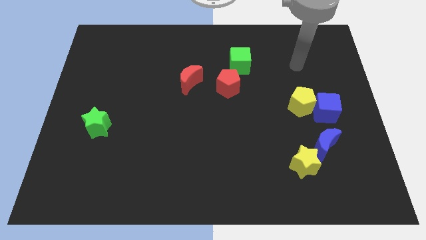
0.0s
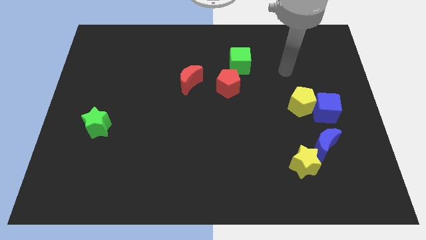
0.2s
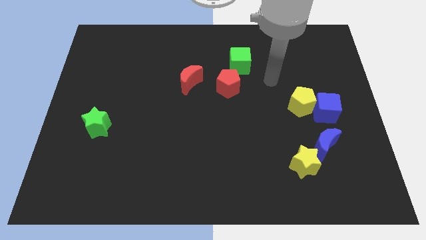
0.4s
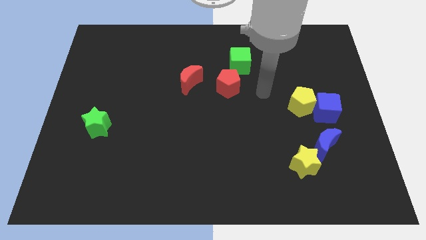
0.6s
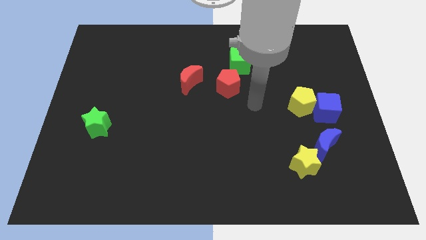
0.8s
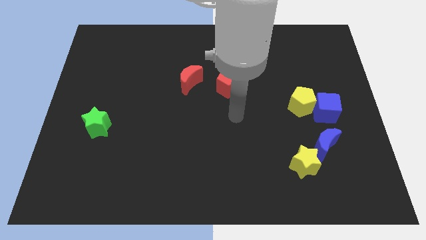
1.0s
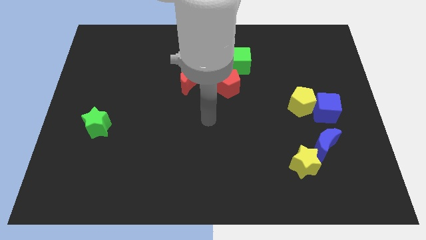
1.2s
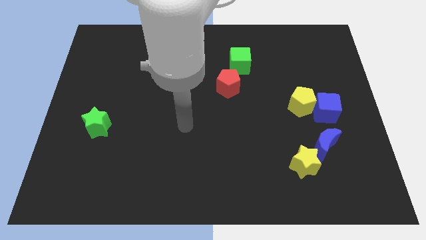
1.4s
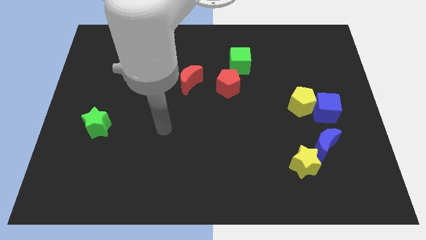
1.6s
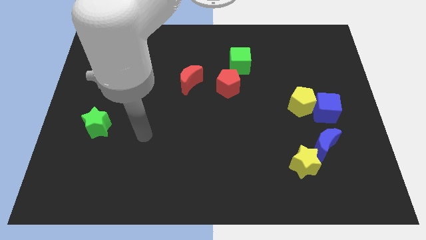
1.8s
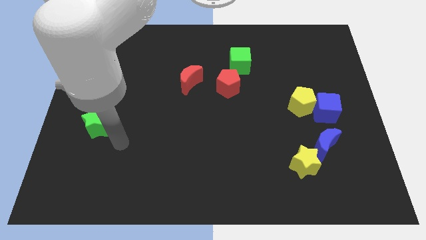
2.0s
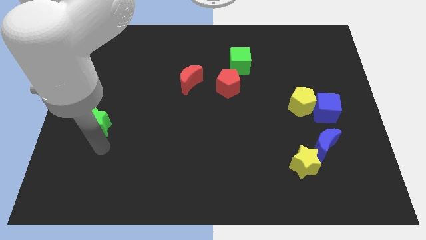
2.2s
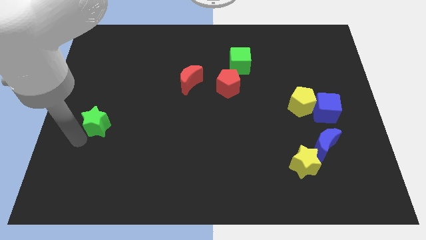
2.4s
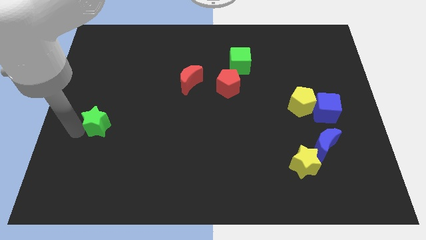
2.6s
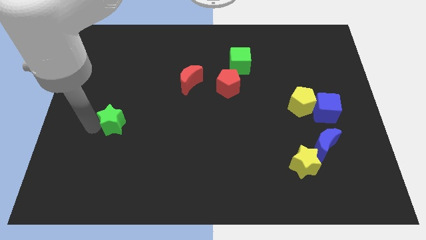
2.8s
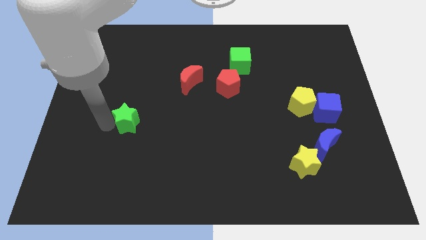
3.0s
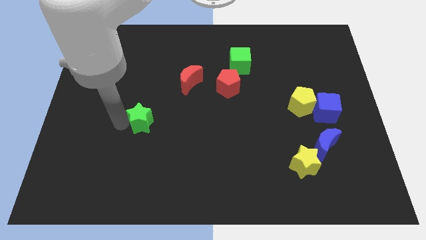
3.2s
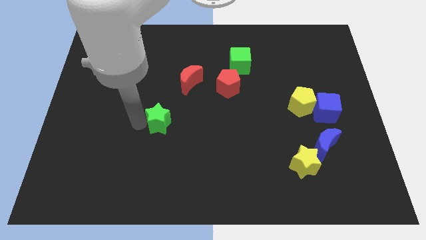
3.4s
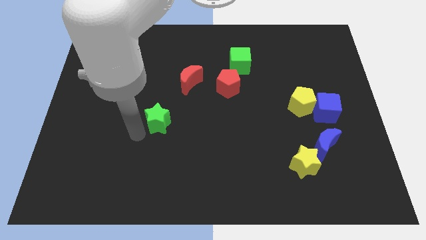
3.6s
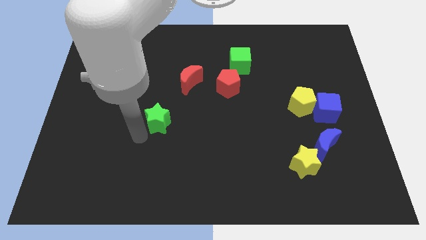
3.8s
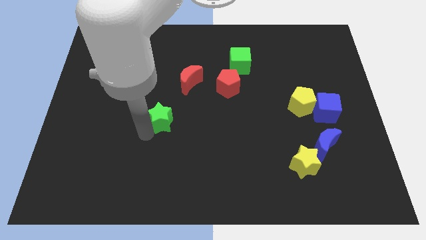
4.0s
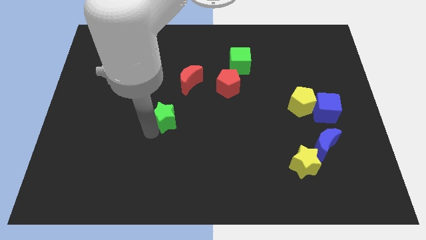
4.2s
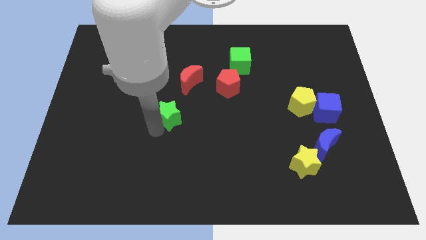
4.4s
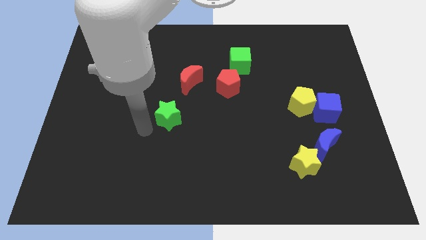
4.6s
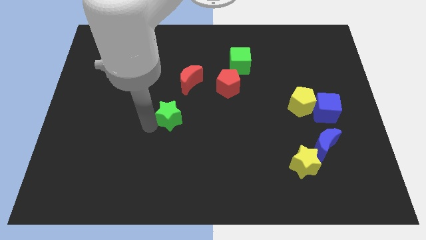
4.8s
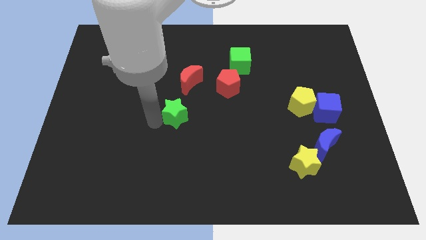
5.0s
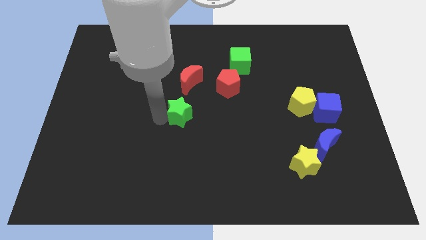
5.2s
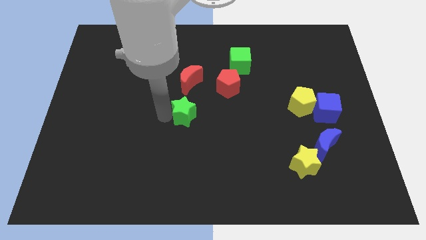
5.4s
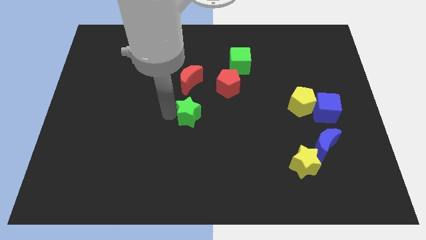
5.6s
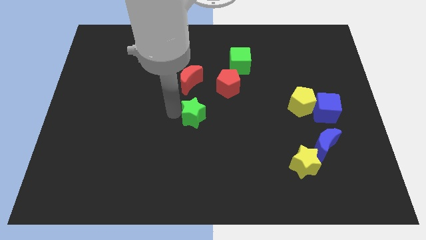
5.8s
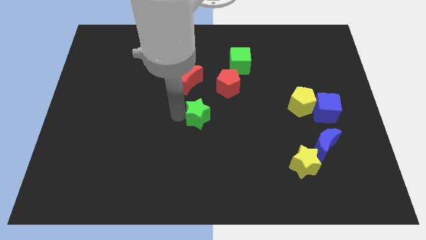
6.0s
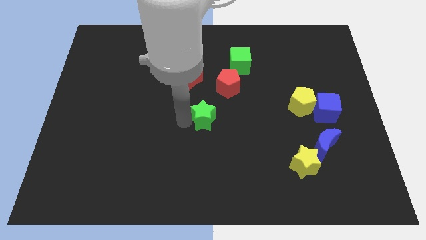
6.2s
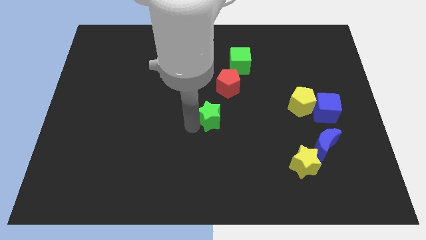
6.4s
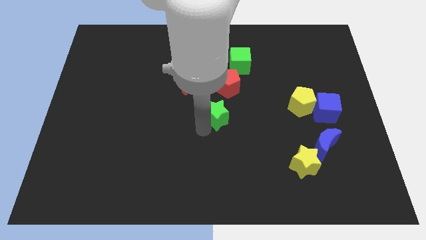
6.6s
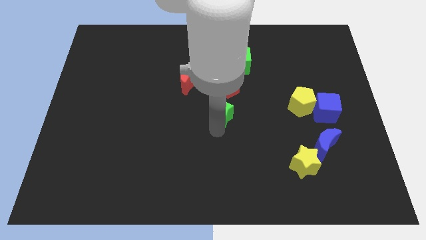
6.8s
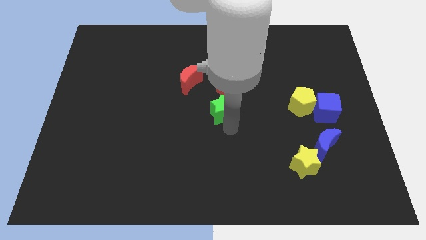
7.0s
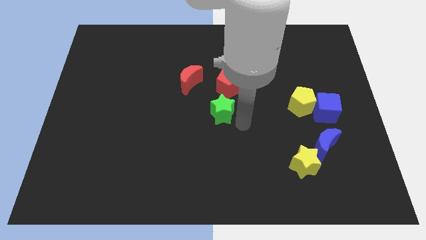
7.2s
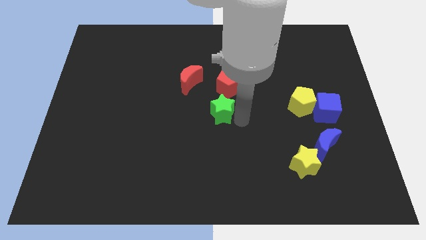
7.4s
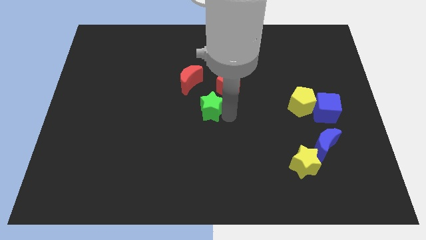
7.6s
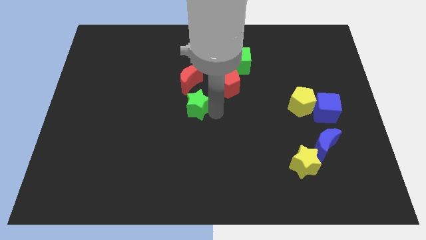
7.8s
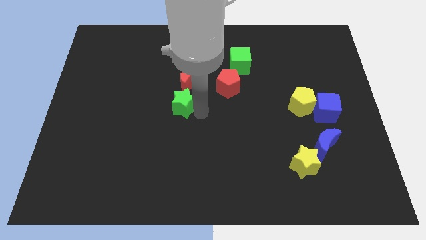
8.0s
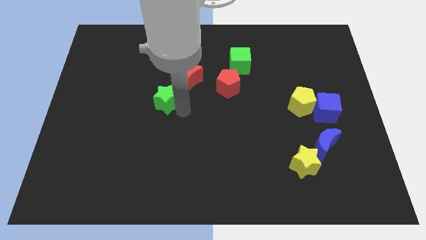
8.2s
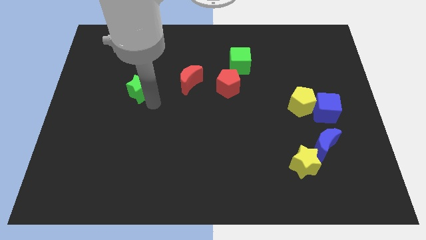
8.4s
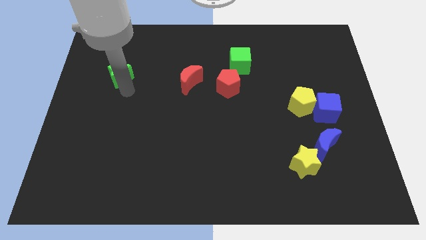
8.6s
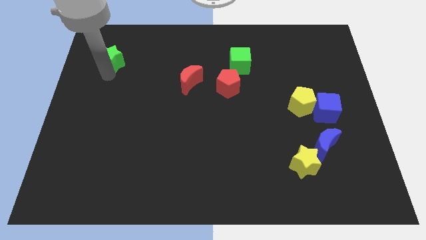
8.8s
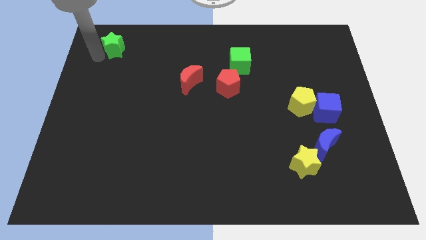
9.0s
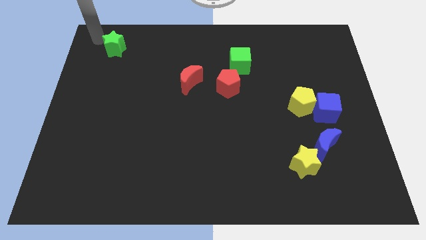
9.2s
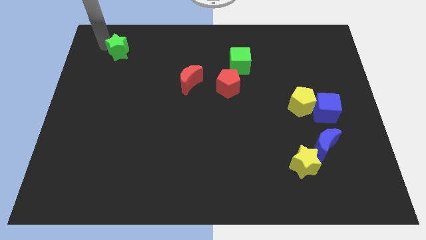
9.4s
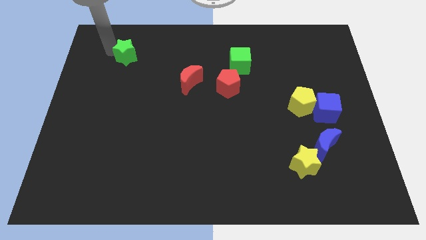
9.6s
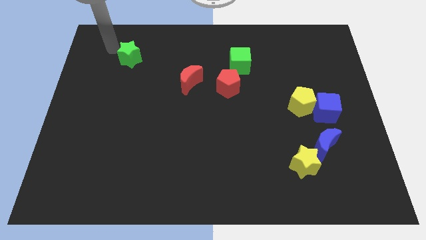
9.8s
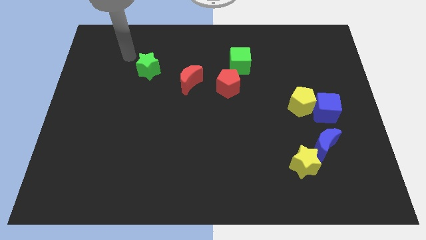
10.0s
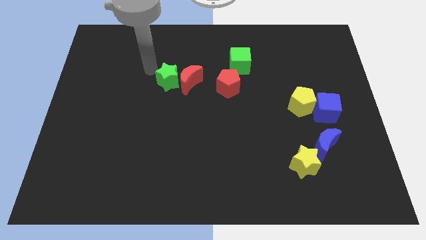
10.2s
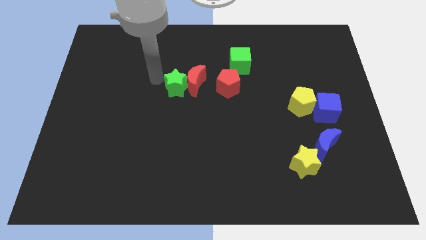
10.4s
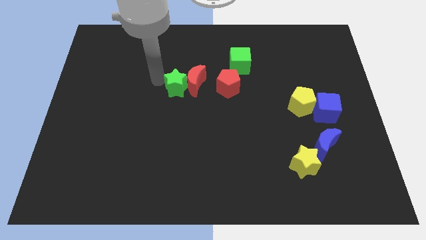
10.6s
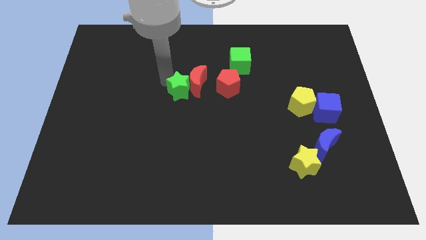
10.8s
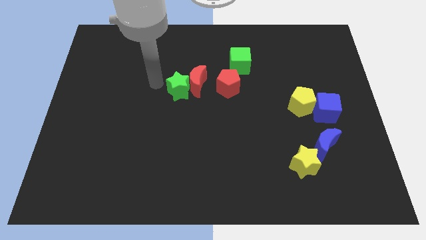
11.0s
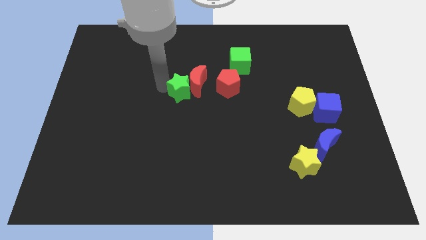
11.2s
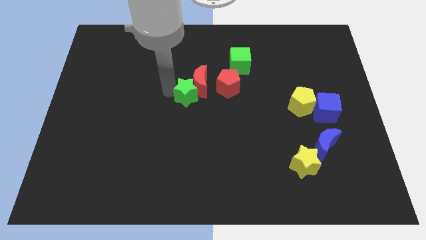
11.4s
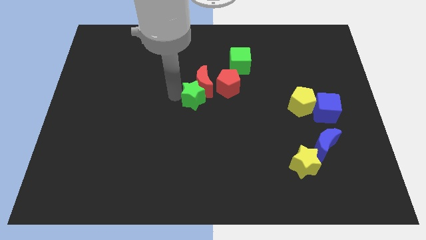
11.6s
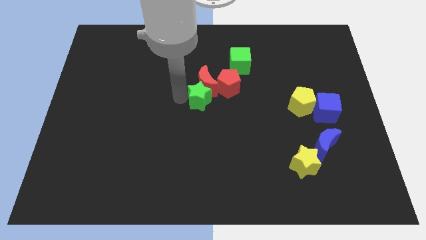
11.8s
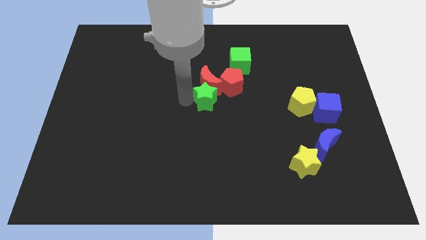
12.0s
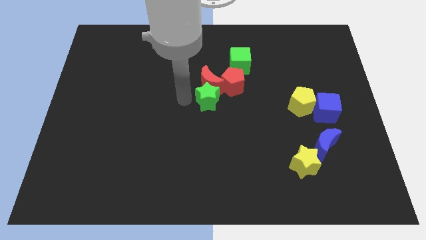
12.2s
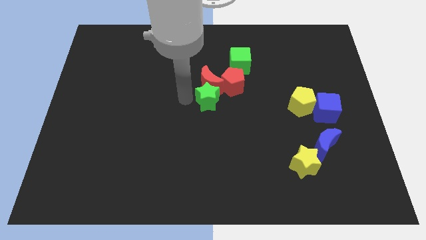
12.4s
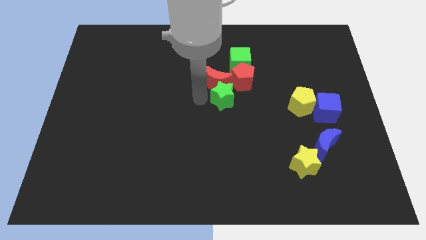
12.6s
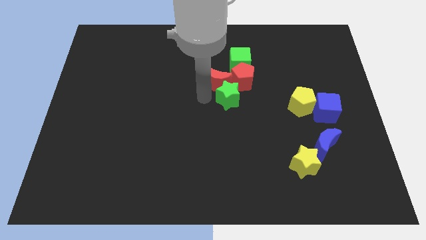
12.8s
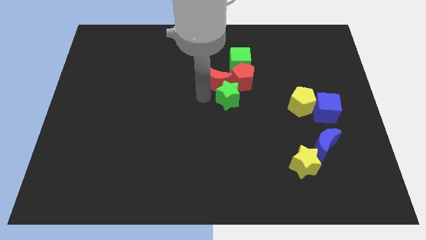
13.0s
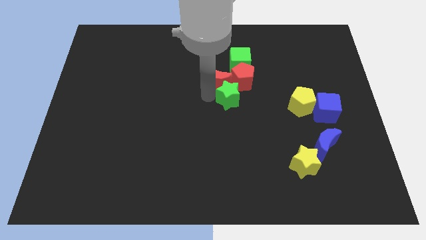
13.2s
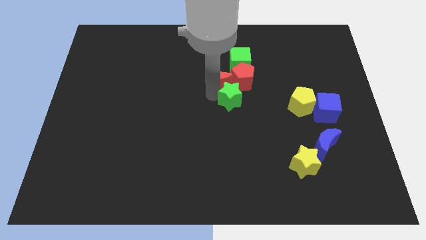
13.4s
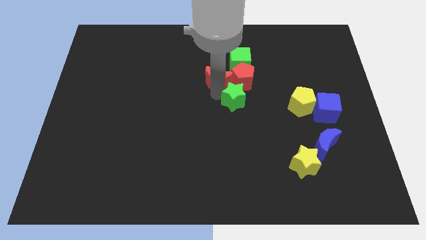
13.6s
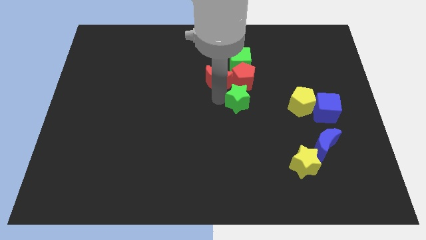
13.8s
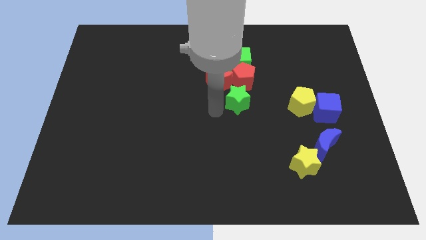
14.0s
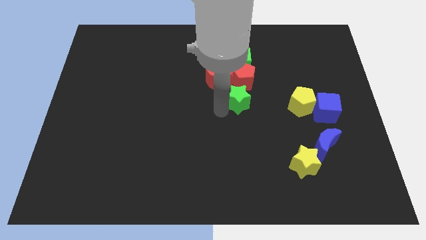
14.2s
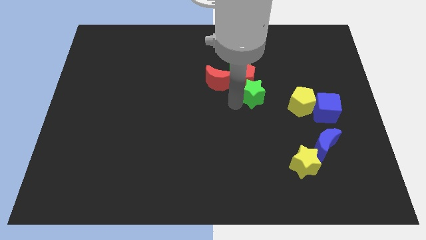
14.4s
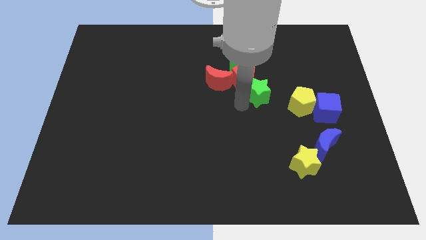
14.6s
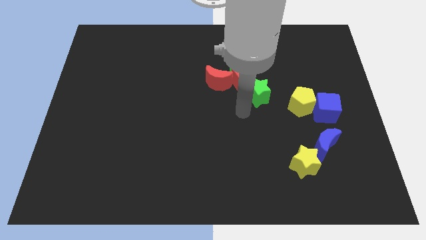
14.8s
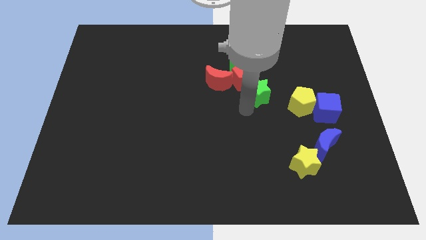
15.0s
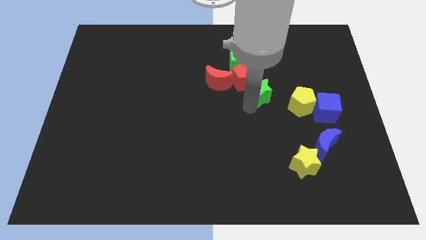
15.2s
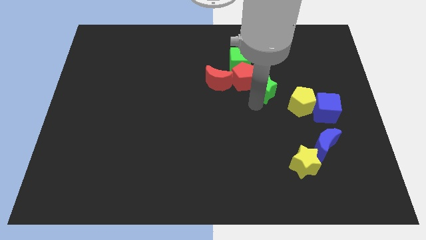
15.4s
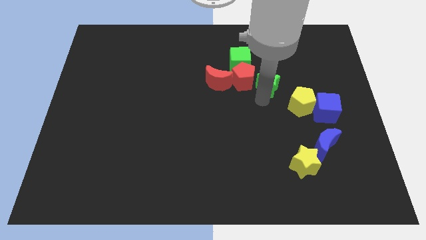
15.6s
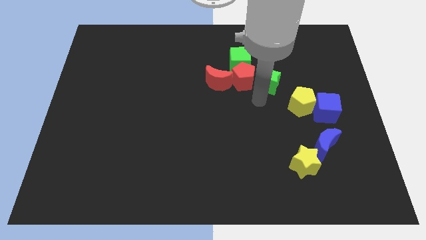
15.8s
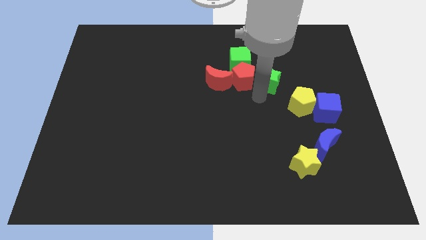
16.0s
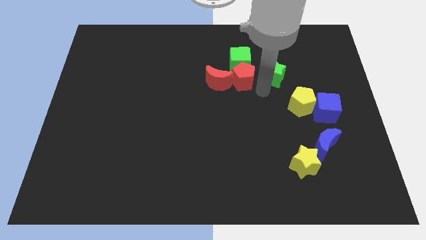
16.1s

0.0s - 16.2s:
move the green star to the right side of the green cube
